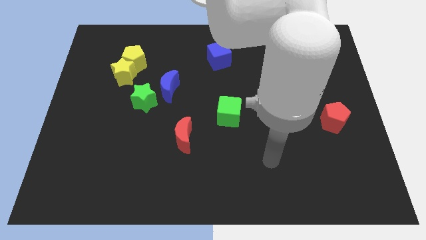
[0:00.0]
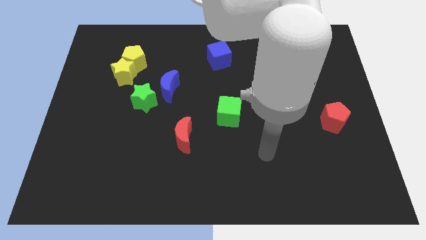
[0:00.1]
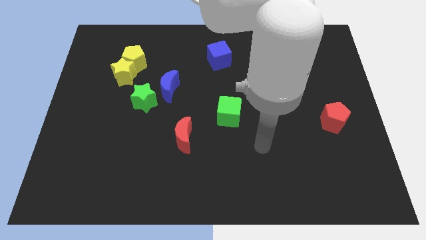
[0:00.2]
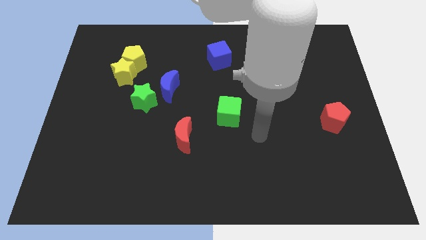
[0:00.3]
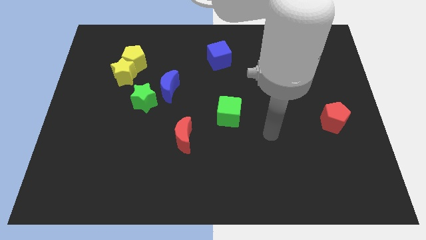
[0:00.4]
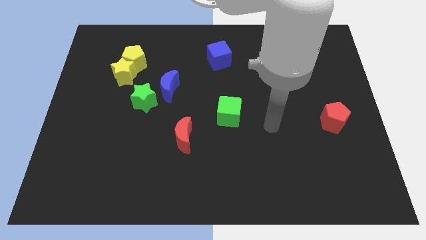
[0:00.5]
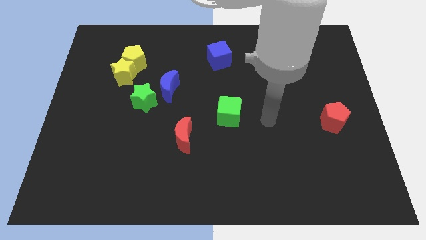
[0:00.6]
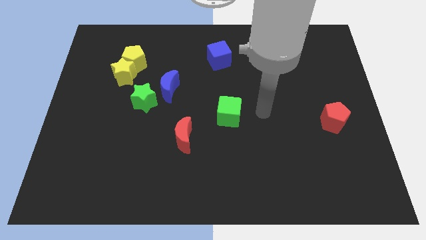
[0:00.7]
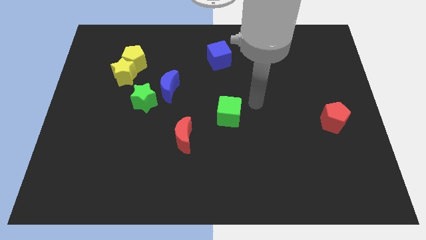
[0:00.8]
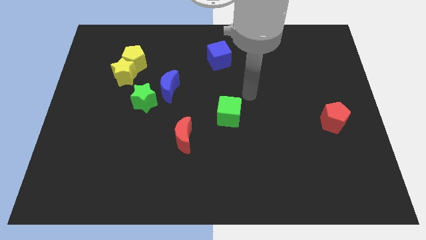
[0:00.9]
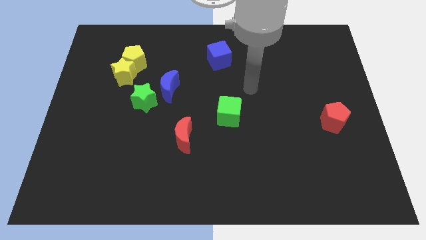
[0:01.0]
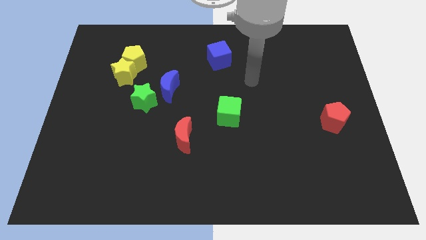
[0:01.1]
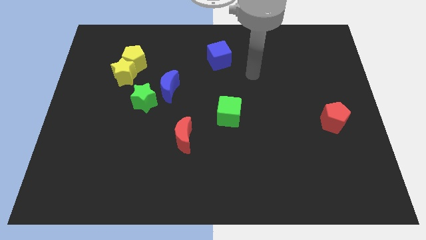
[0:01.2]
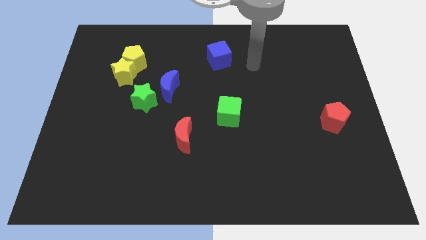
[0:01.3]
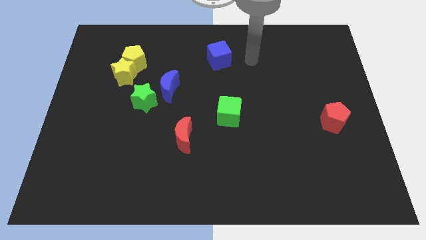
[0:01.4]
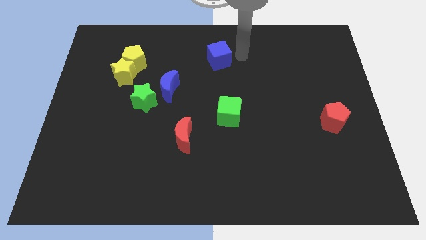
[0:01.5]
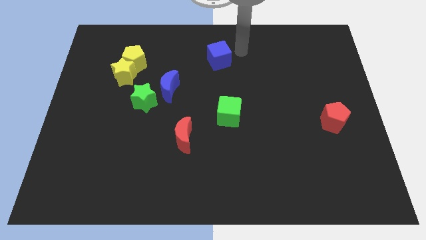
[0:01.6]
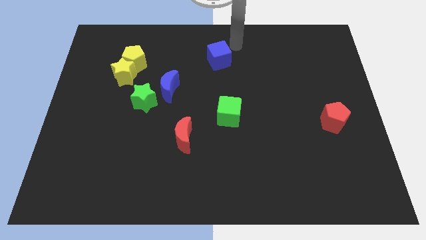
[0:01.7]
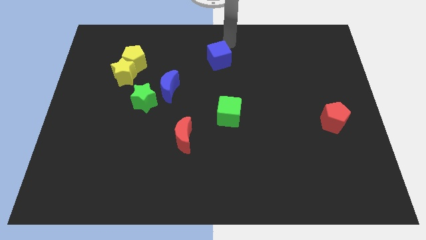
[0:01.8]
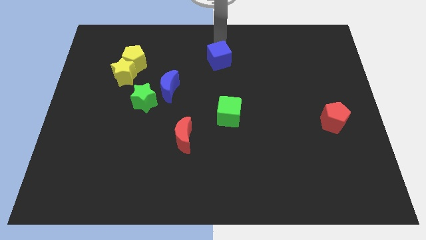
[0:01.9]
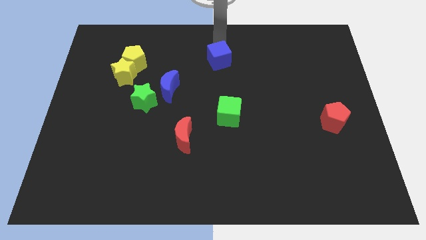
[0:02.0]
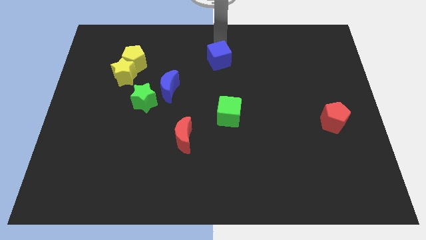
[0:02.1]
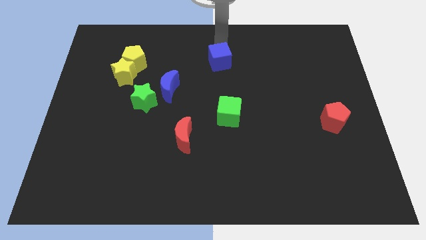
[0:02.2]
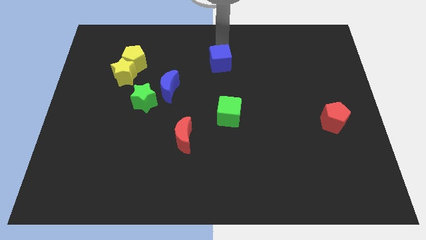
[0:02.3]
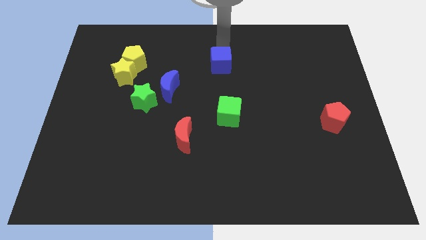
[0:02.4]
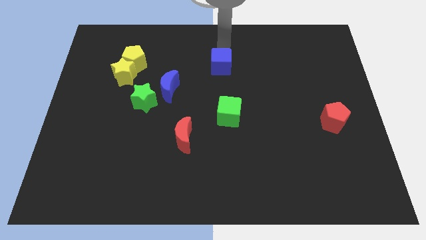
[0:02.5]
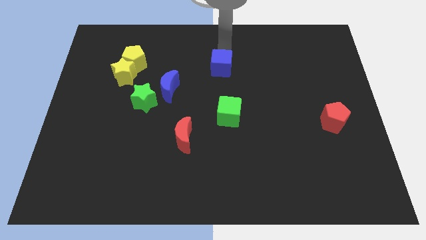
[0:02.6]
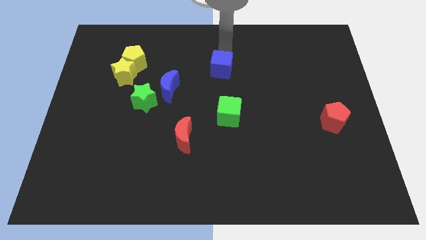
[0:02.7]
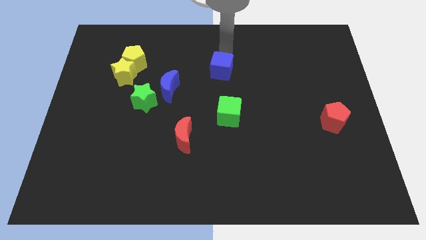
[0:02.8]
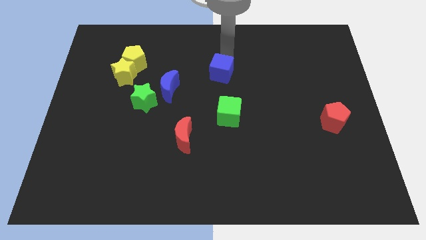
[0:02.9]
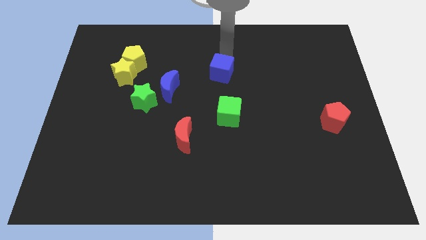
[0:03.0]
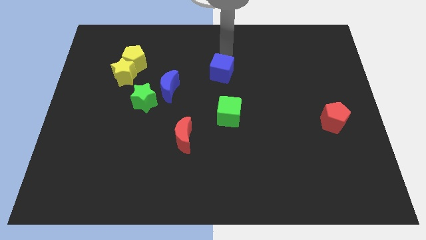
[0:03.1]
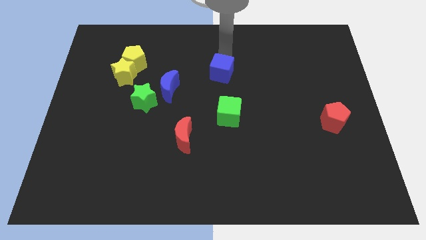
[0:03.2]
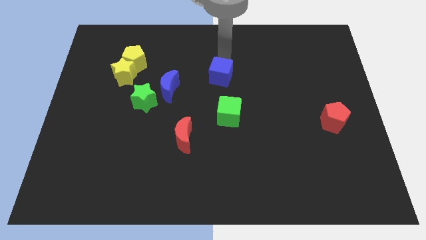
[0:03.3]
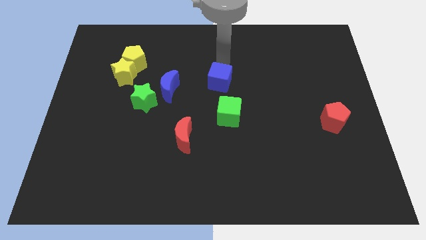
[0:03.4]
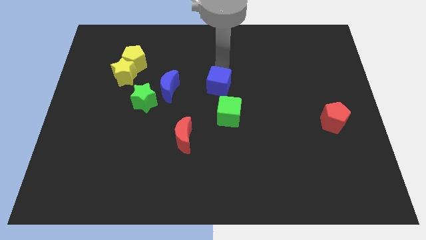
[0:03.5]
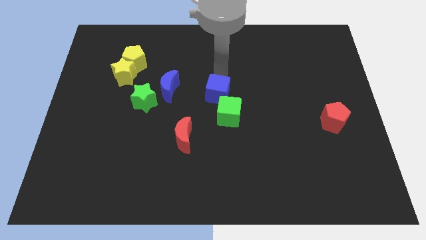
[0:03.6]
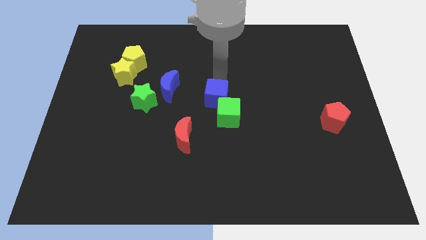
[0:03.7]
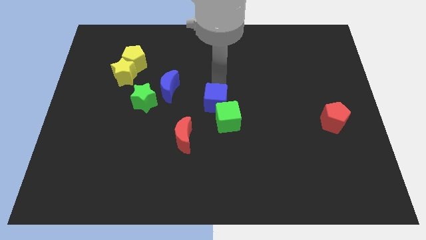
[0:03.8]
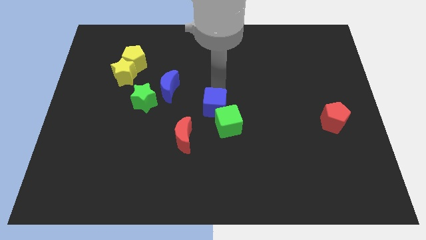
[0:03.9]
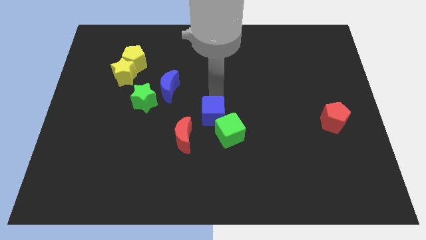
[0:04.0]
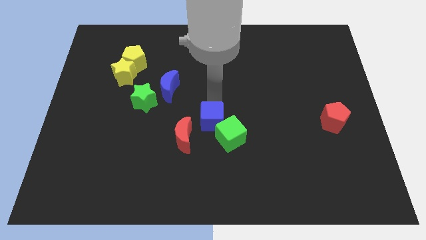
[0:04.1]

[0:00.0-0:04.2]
move the blue cube down

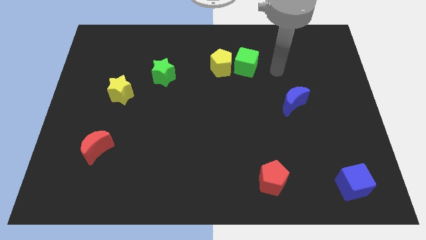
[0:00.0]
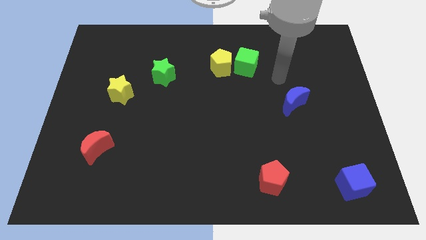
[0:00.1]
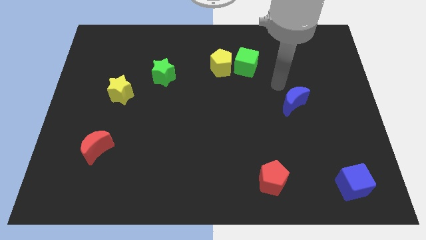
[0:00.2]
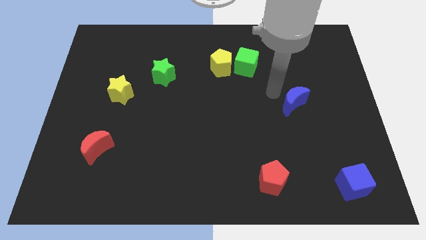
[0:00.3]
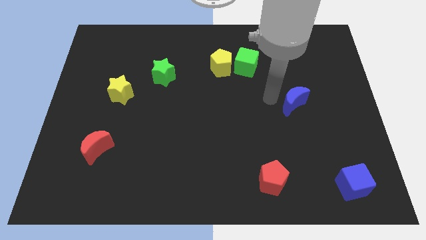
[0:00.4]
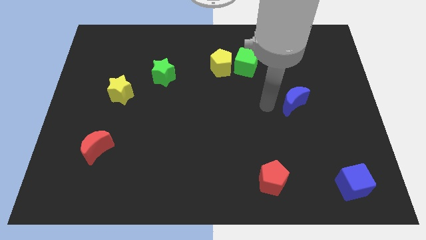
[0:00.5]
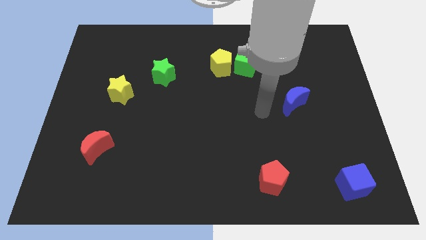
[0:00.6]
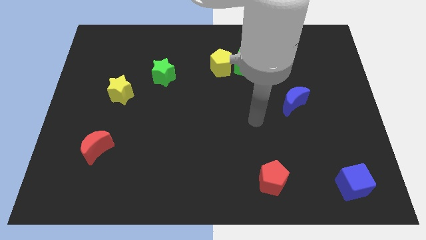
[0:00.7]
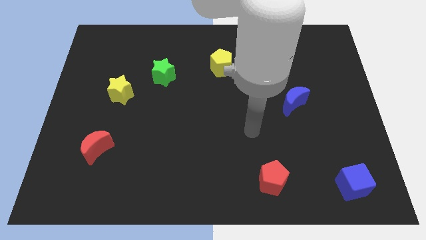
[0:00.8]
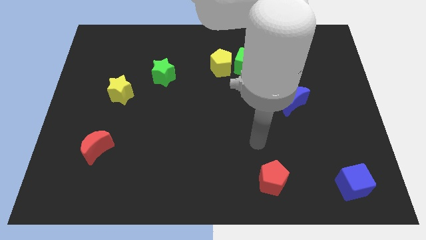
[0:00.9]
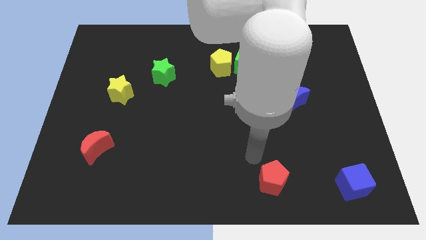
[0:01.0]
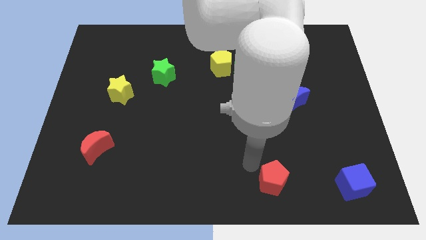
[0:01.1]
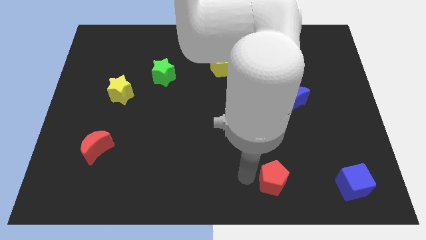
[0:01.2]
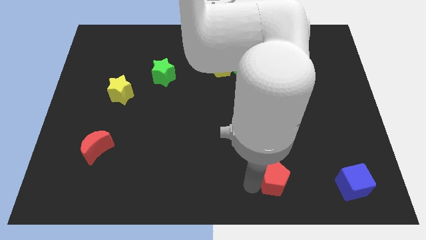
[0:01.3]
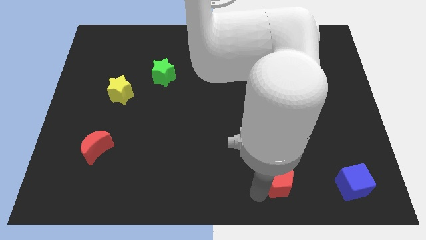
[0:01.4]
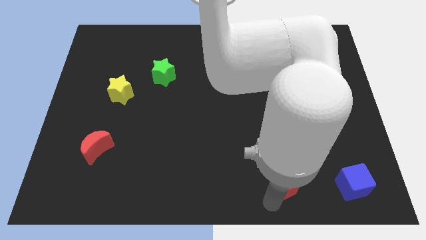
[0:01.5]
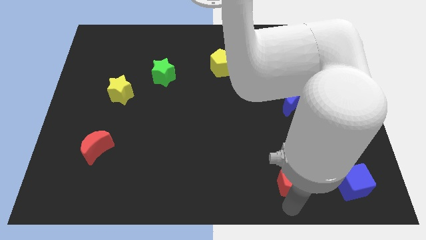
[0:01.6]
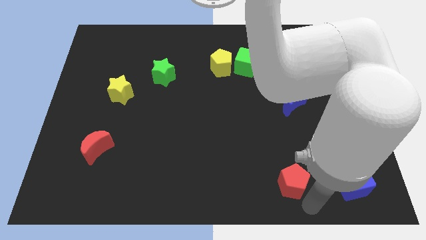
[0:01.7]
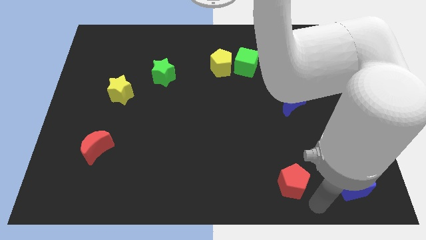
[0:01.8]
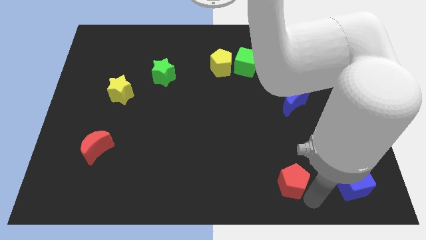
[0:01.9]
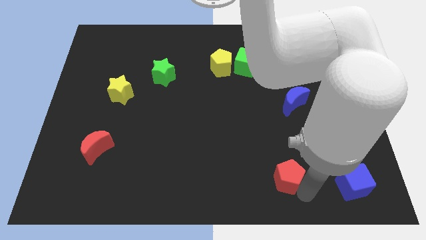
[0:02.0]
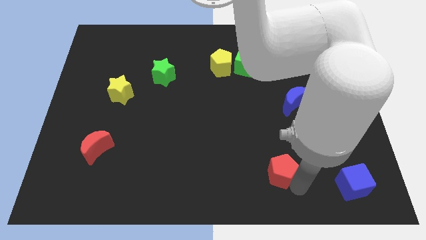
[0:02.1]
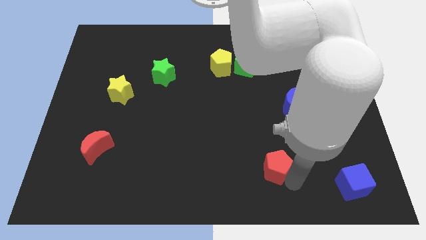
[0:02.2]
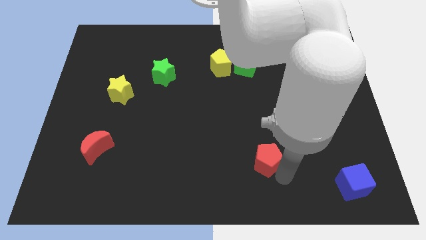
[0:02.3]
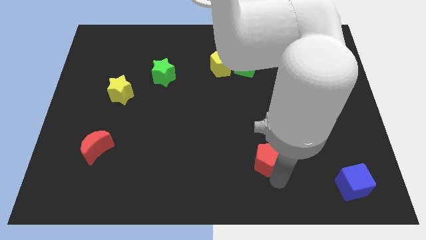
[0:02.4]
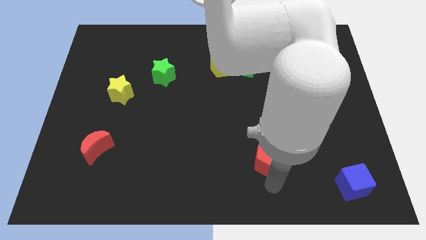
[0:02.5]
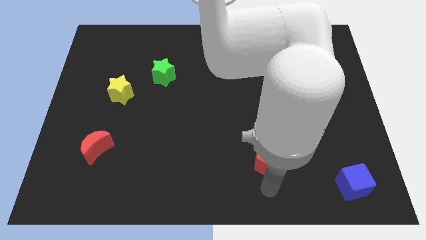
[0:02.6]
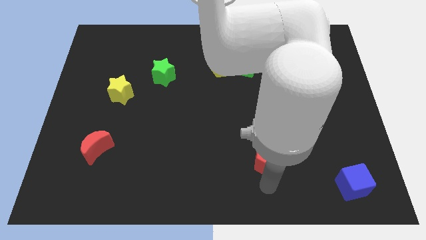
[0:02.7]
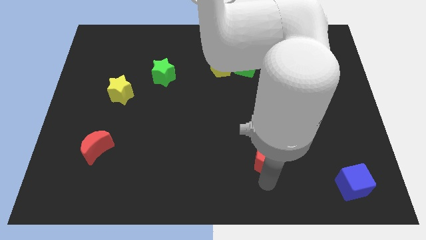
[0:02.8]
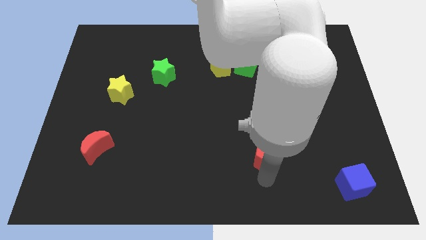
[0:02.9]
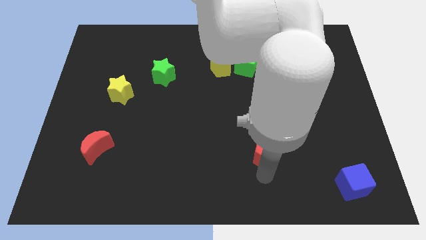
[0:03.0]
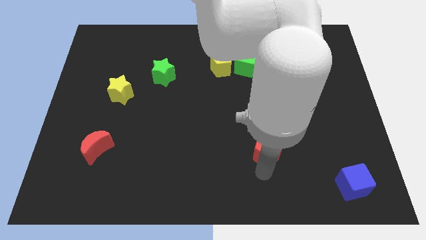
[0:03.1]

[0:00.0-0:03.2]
push the red pentagon a little bit up

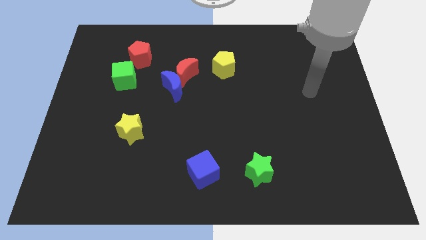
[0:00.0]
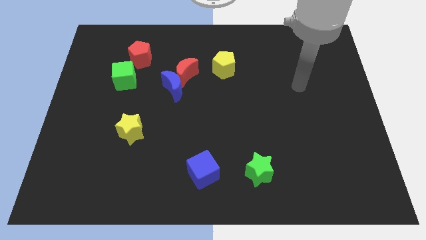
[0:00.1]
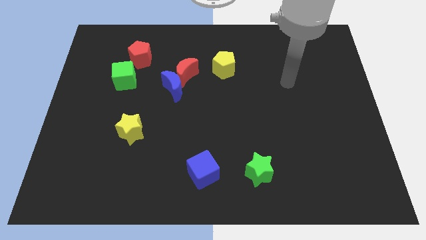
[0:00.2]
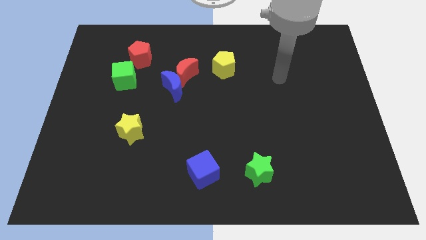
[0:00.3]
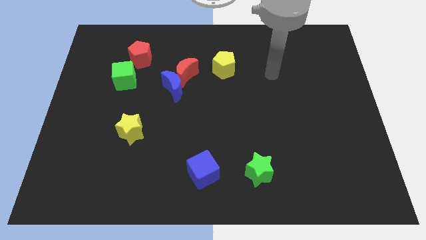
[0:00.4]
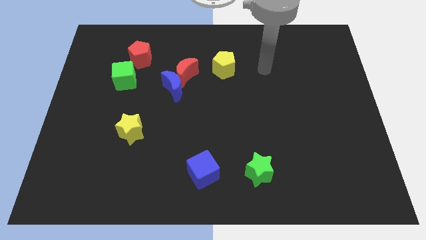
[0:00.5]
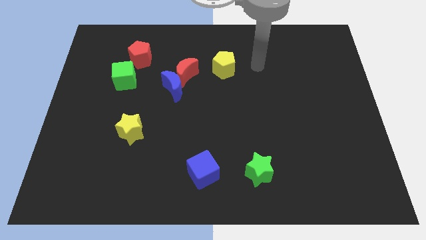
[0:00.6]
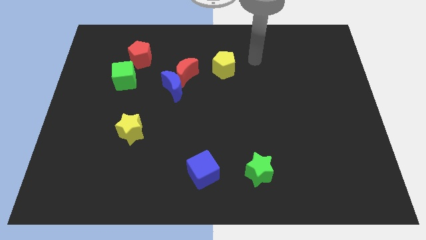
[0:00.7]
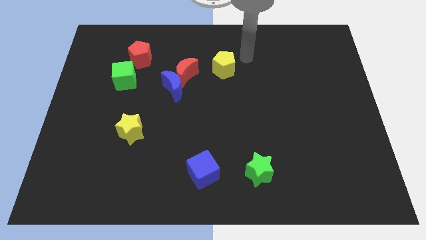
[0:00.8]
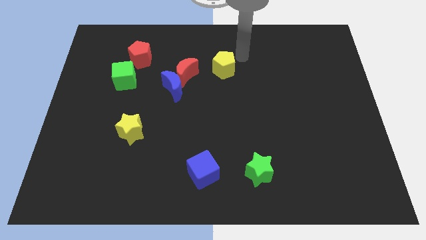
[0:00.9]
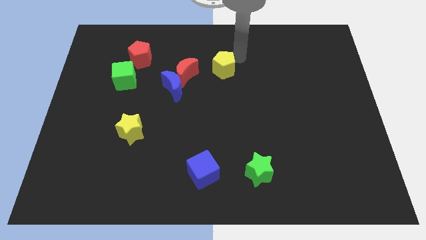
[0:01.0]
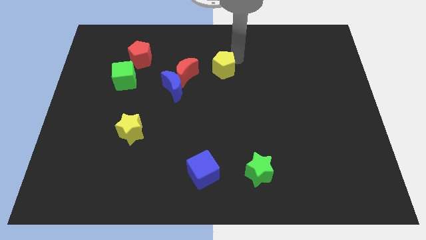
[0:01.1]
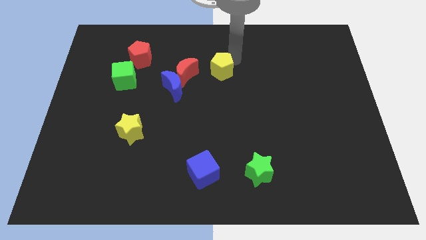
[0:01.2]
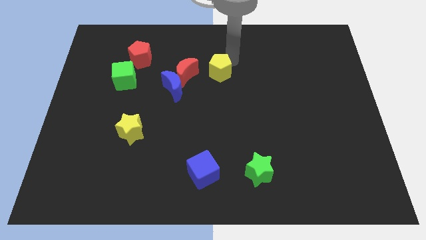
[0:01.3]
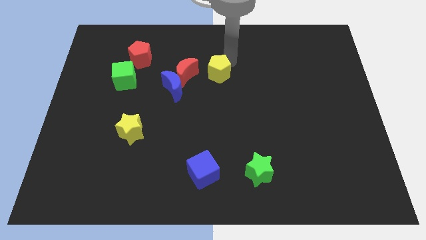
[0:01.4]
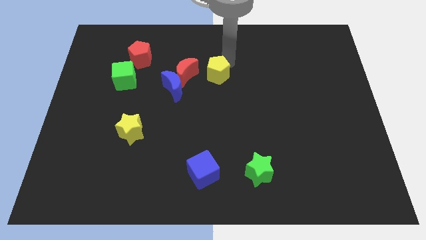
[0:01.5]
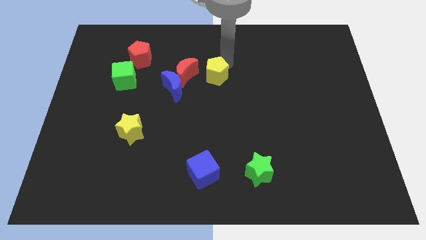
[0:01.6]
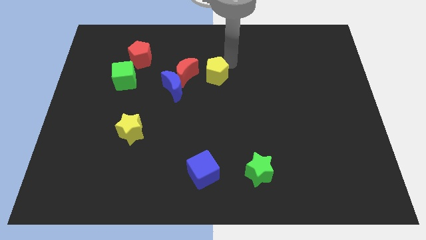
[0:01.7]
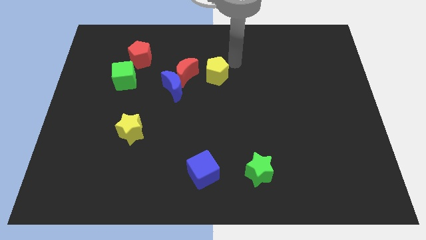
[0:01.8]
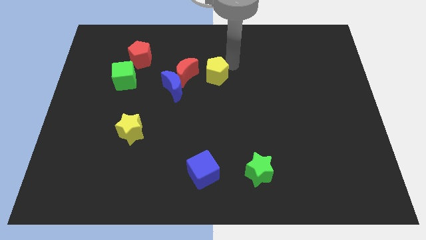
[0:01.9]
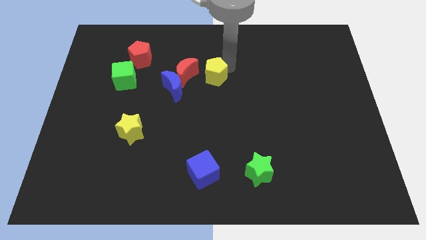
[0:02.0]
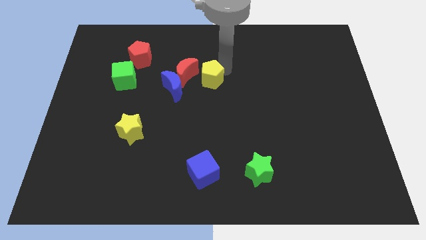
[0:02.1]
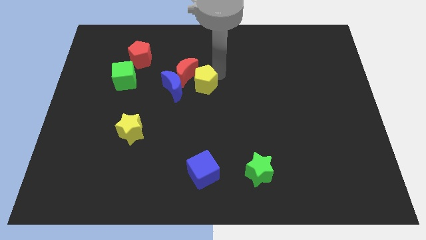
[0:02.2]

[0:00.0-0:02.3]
move the yellow pentagon down and left slightly
